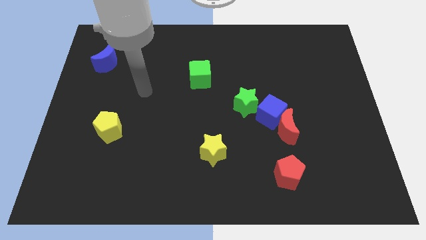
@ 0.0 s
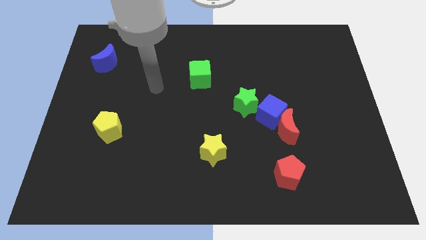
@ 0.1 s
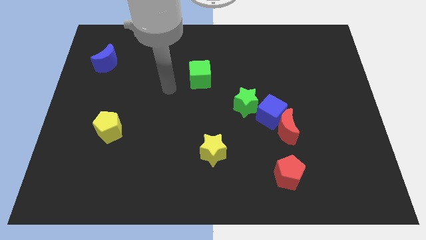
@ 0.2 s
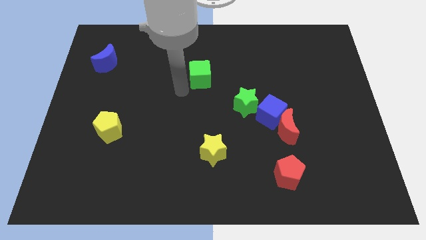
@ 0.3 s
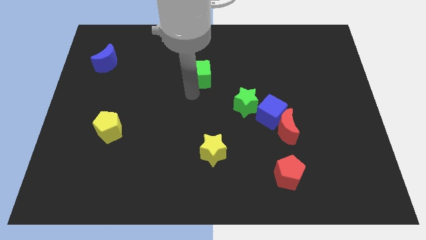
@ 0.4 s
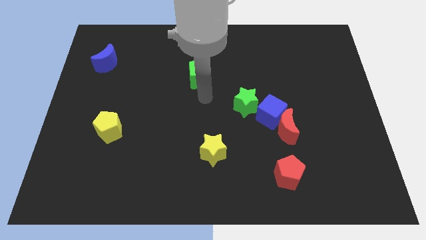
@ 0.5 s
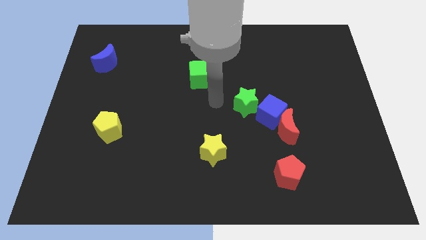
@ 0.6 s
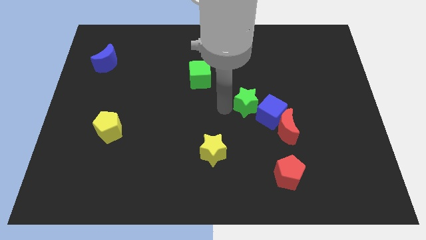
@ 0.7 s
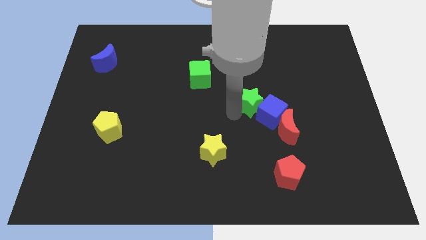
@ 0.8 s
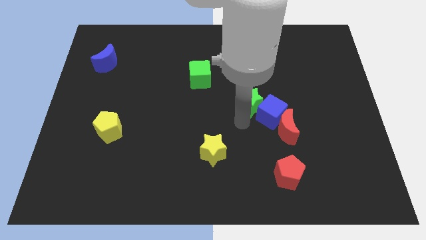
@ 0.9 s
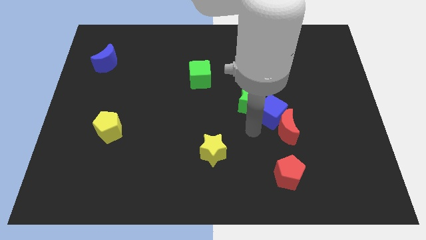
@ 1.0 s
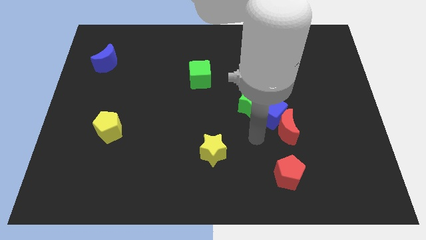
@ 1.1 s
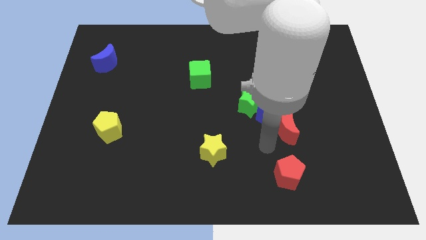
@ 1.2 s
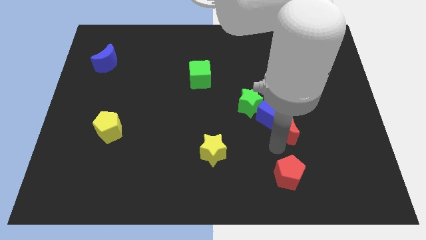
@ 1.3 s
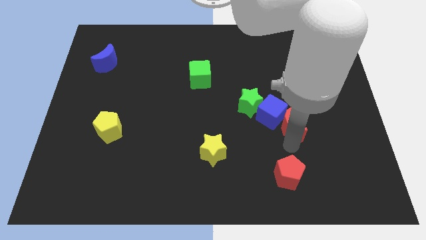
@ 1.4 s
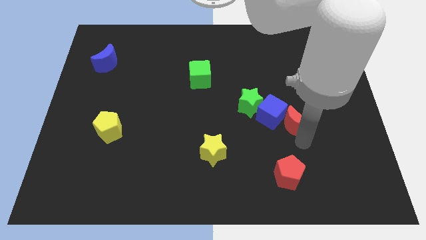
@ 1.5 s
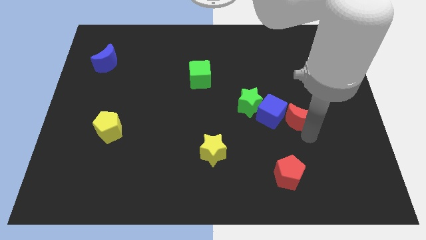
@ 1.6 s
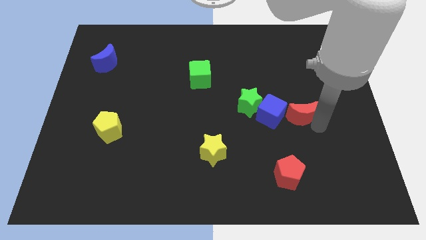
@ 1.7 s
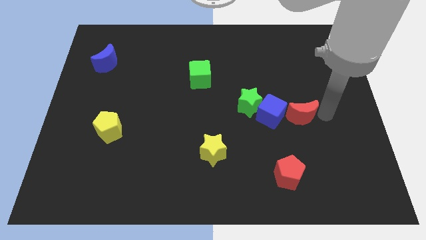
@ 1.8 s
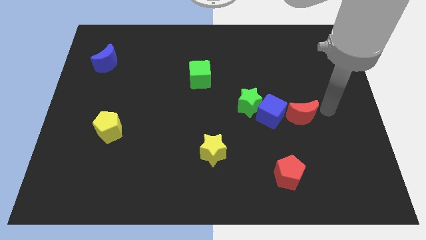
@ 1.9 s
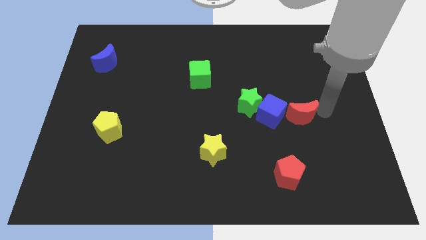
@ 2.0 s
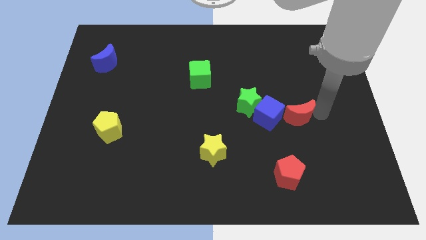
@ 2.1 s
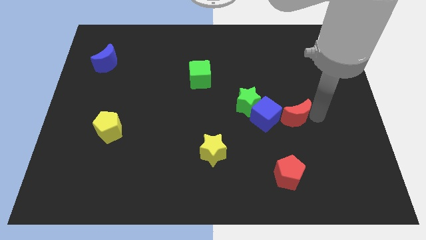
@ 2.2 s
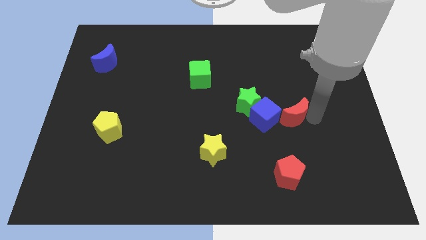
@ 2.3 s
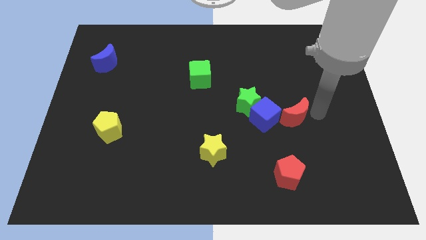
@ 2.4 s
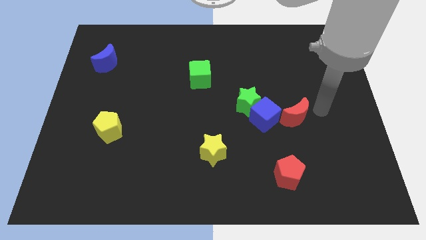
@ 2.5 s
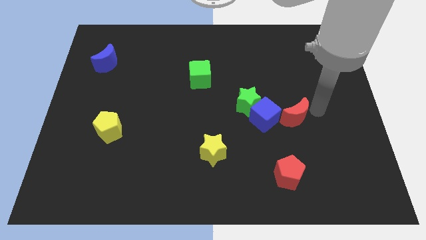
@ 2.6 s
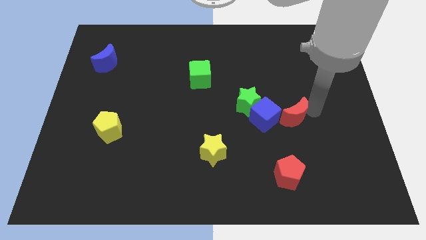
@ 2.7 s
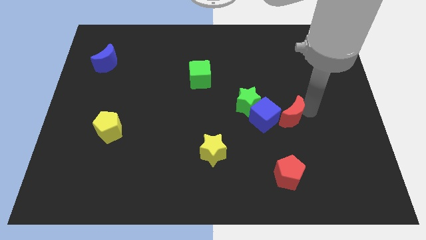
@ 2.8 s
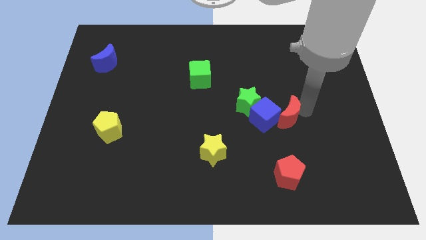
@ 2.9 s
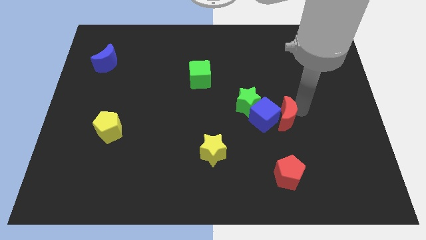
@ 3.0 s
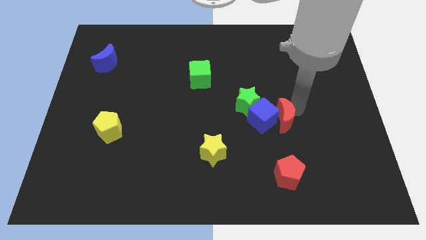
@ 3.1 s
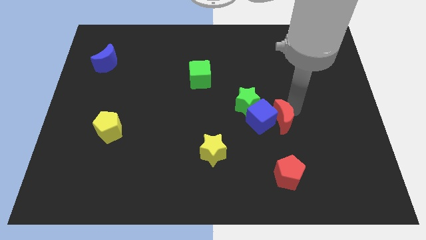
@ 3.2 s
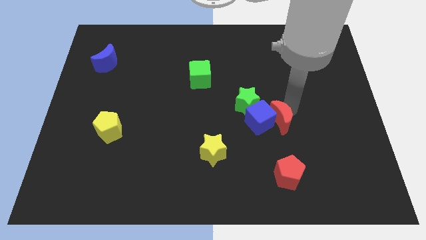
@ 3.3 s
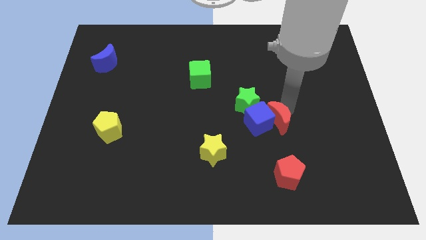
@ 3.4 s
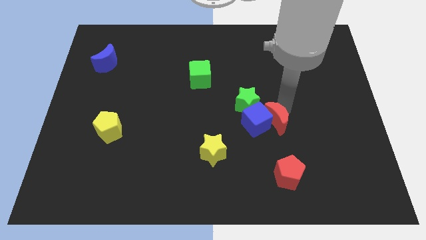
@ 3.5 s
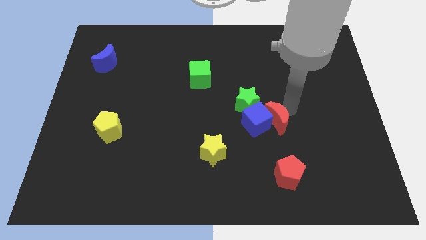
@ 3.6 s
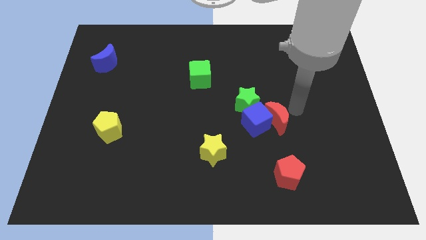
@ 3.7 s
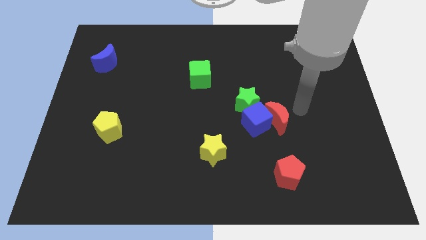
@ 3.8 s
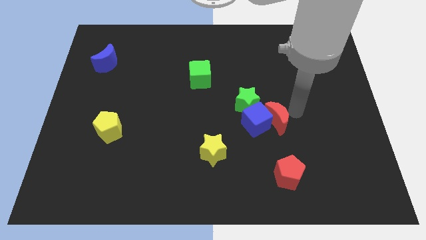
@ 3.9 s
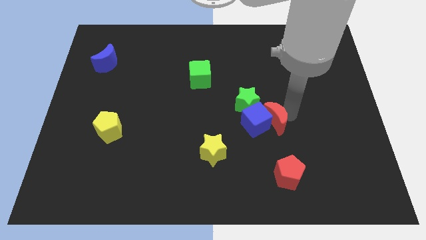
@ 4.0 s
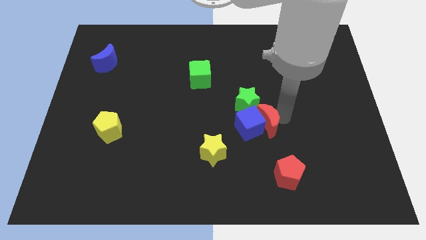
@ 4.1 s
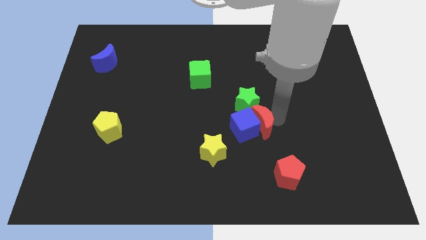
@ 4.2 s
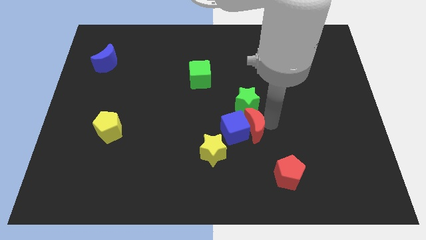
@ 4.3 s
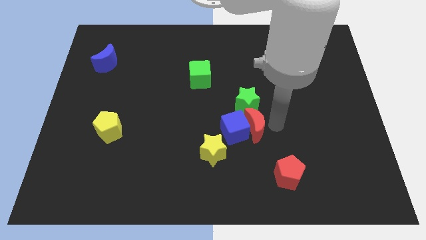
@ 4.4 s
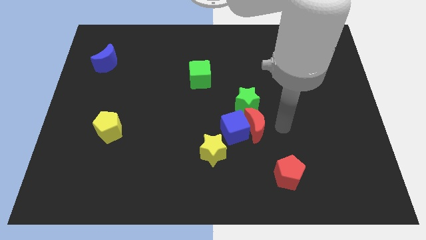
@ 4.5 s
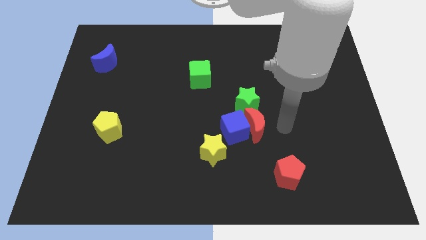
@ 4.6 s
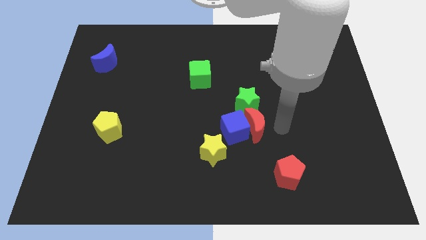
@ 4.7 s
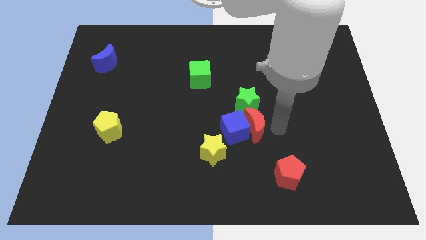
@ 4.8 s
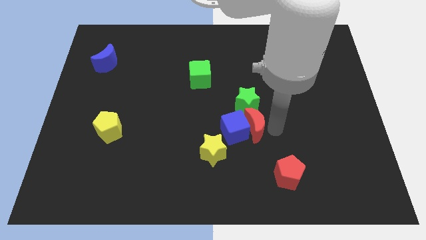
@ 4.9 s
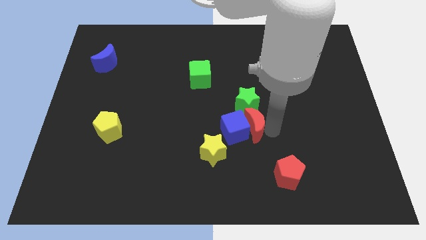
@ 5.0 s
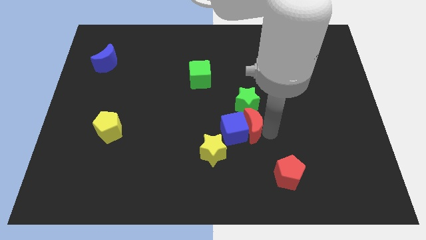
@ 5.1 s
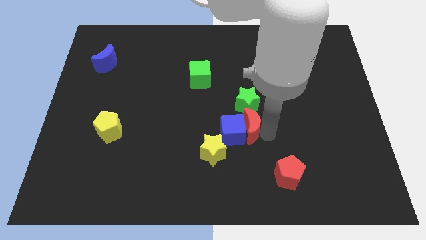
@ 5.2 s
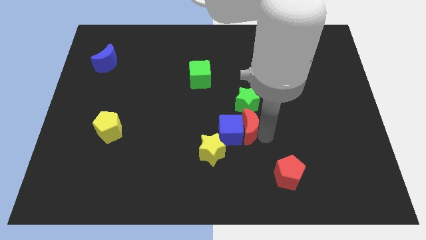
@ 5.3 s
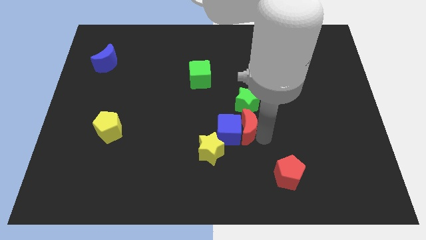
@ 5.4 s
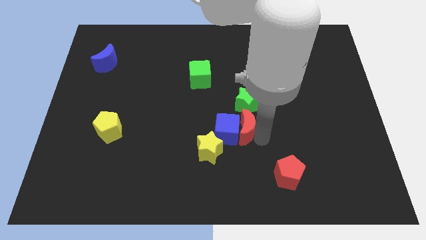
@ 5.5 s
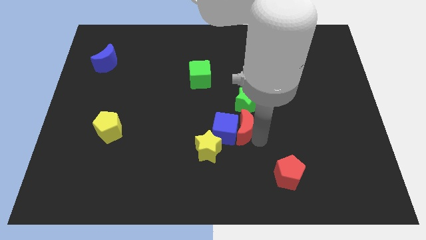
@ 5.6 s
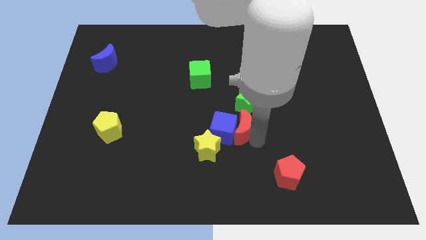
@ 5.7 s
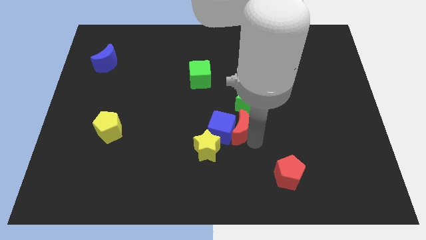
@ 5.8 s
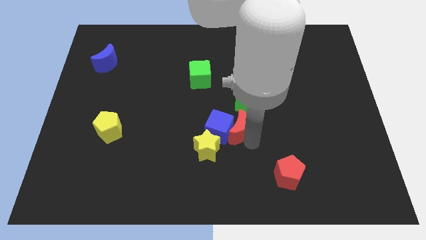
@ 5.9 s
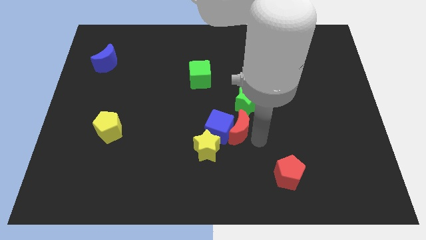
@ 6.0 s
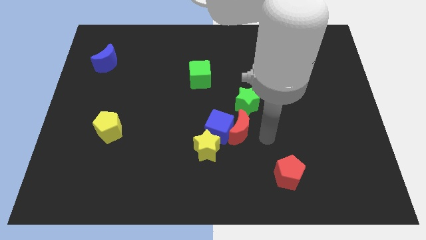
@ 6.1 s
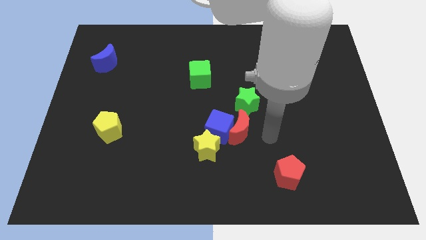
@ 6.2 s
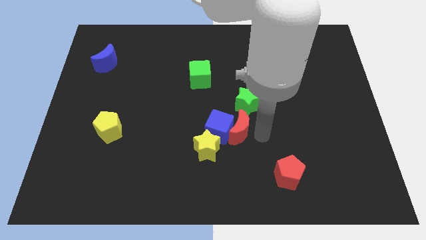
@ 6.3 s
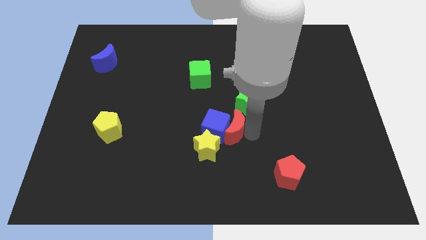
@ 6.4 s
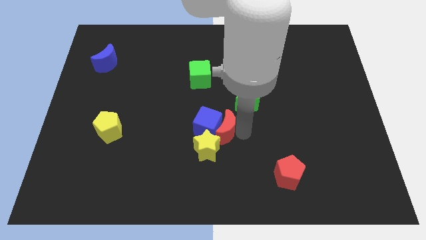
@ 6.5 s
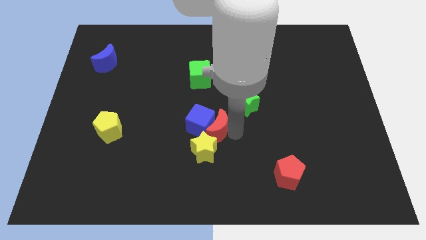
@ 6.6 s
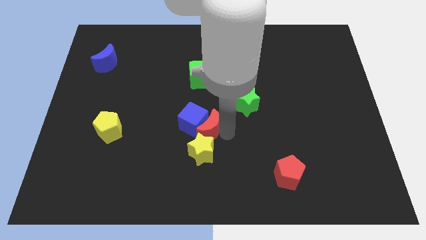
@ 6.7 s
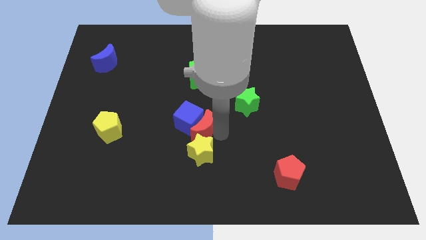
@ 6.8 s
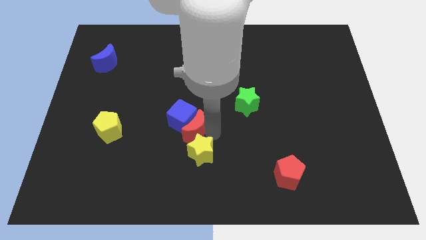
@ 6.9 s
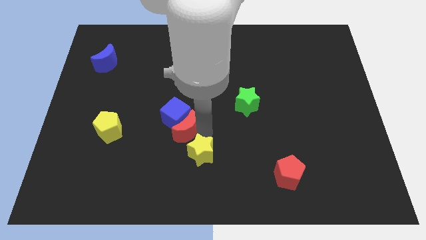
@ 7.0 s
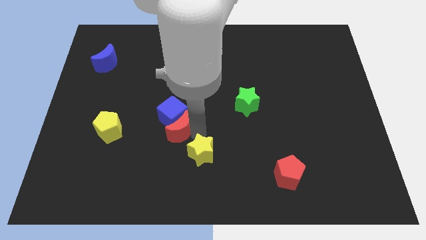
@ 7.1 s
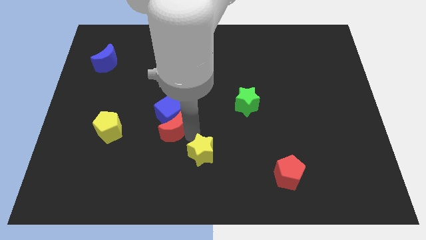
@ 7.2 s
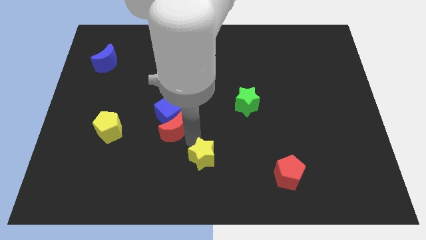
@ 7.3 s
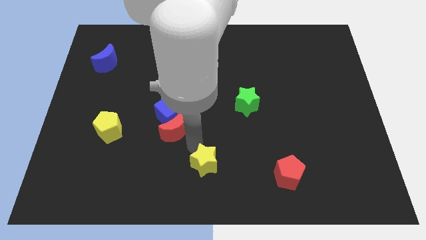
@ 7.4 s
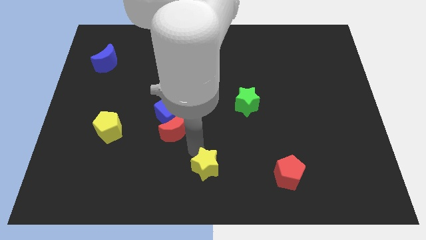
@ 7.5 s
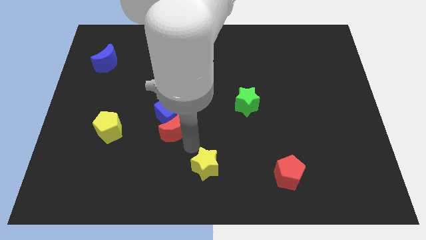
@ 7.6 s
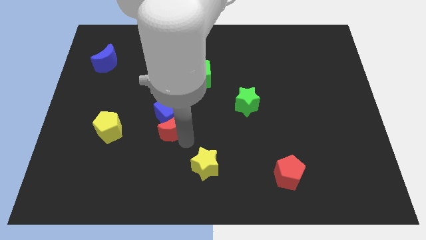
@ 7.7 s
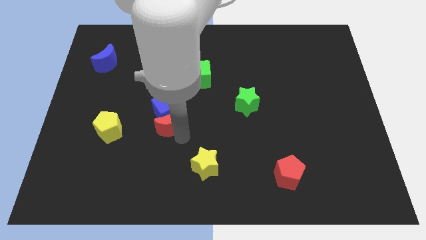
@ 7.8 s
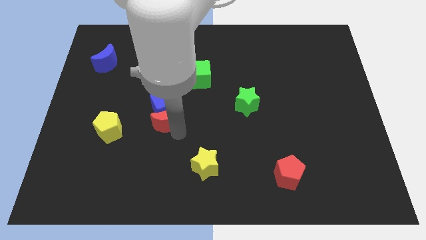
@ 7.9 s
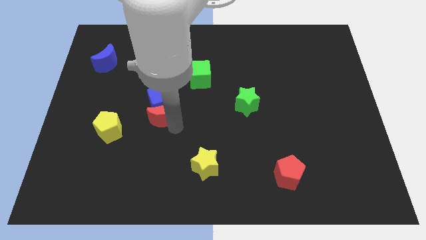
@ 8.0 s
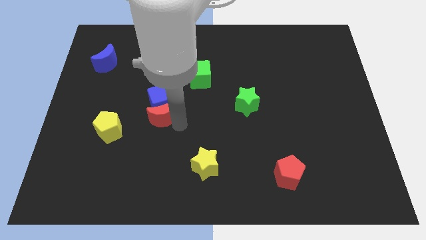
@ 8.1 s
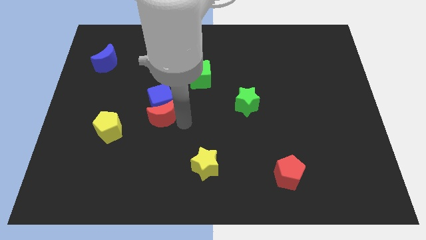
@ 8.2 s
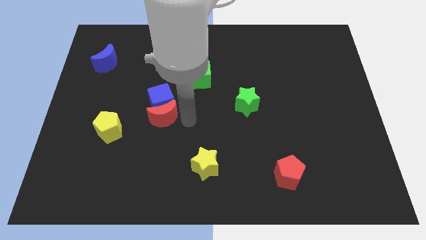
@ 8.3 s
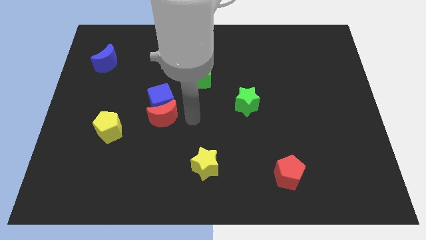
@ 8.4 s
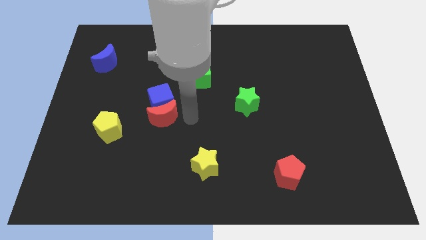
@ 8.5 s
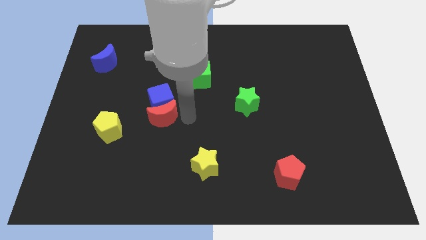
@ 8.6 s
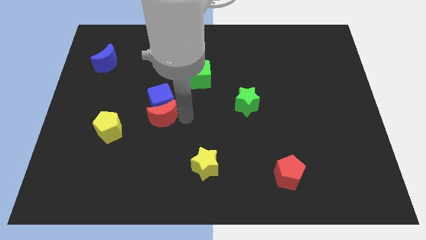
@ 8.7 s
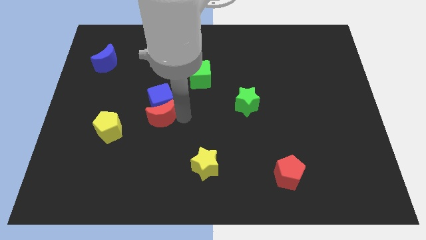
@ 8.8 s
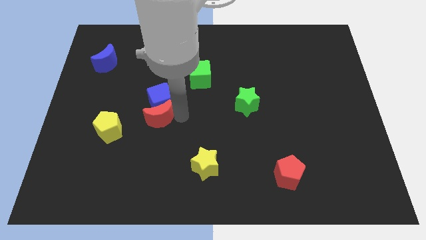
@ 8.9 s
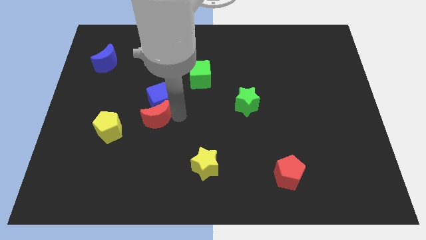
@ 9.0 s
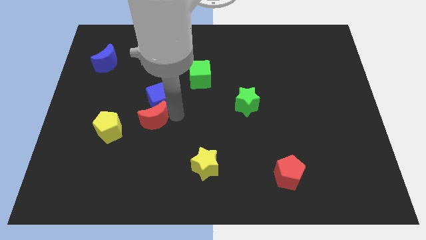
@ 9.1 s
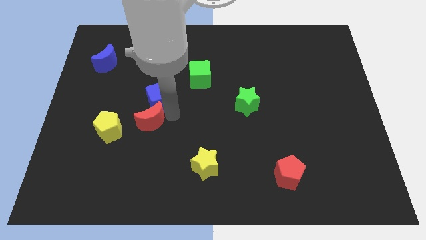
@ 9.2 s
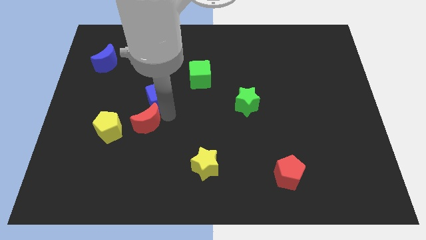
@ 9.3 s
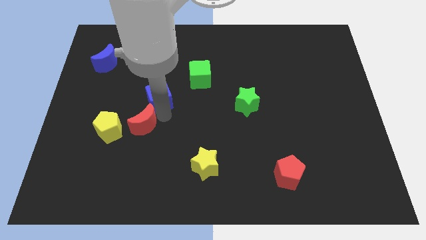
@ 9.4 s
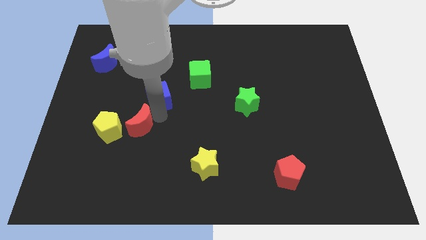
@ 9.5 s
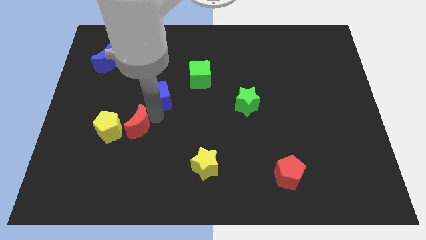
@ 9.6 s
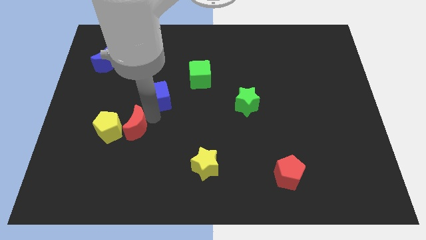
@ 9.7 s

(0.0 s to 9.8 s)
put the red moon to the yellow pentagon
